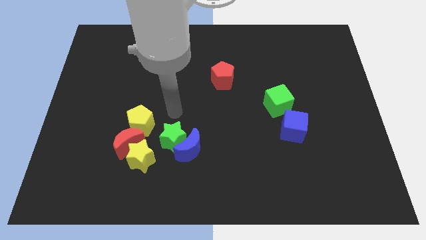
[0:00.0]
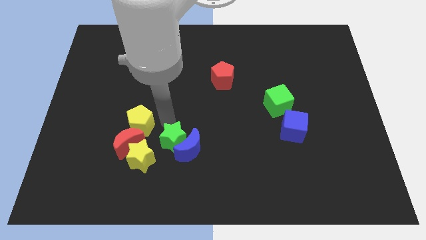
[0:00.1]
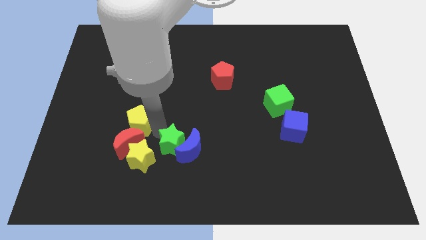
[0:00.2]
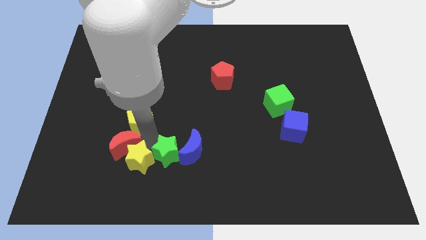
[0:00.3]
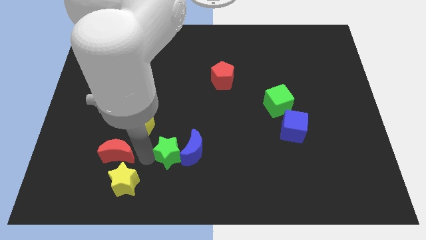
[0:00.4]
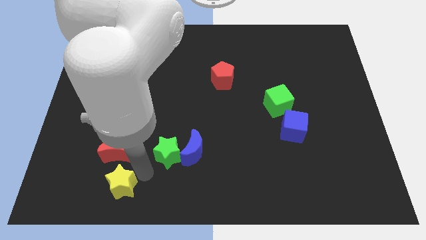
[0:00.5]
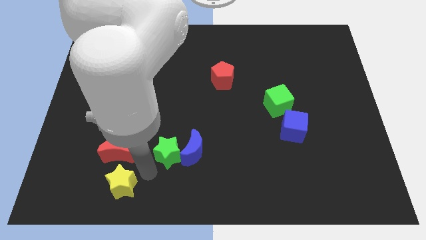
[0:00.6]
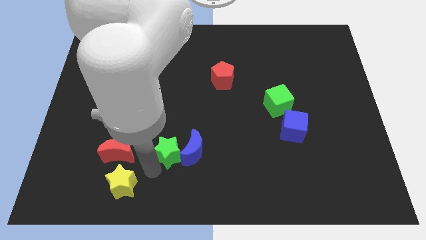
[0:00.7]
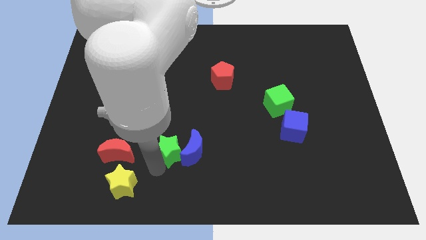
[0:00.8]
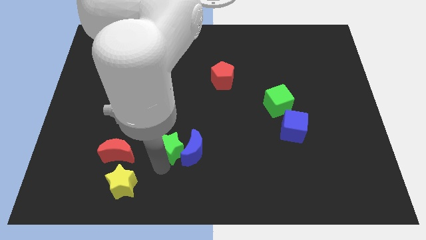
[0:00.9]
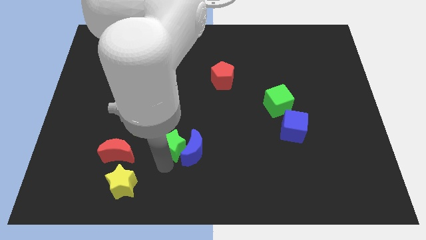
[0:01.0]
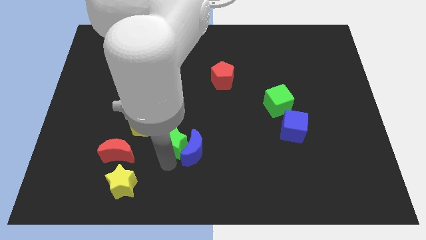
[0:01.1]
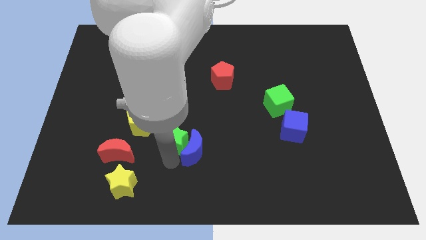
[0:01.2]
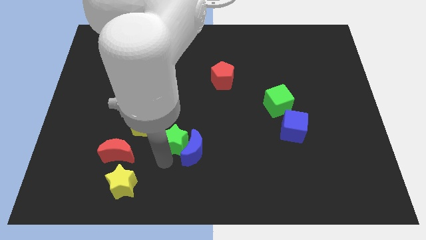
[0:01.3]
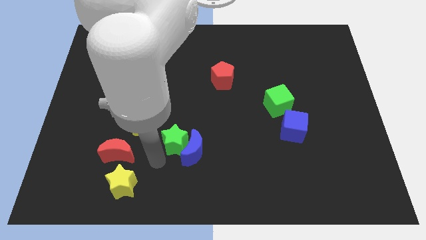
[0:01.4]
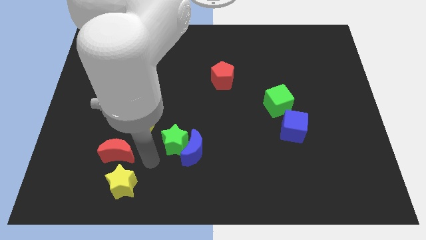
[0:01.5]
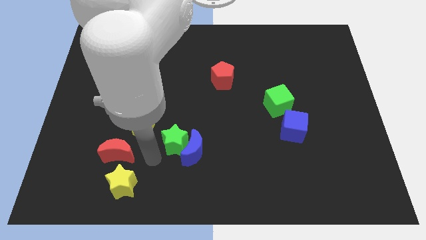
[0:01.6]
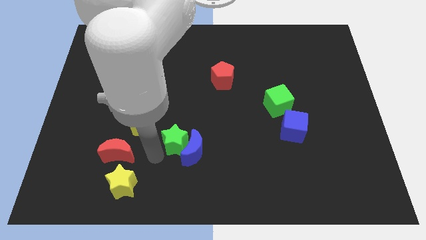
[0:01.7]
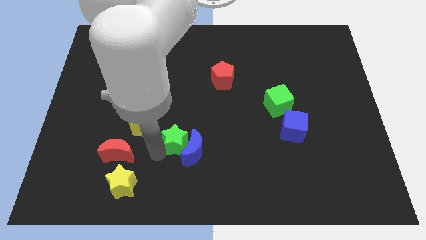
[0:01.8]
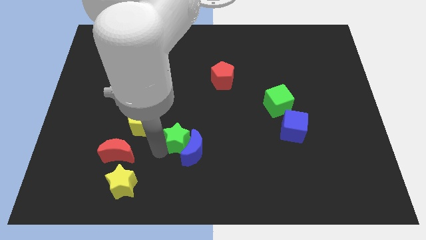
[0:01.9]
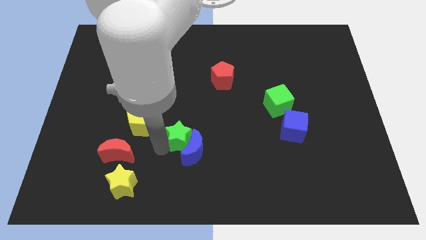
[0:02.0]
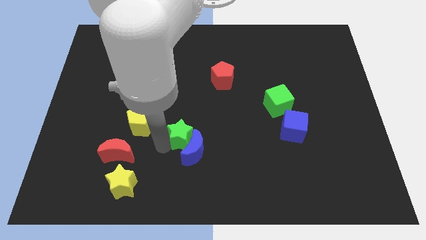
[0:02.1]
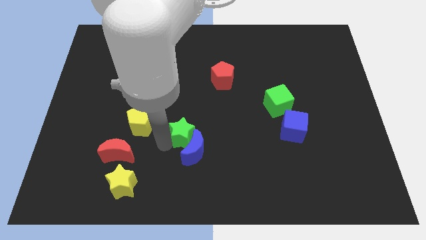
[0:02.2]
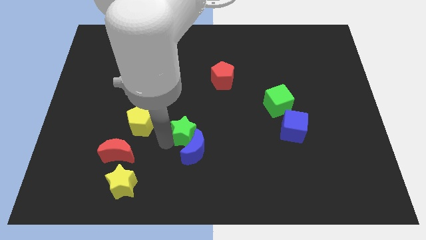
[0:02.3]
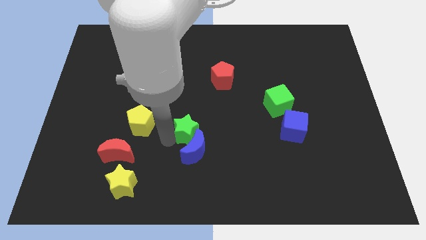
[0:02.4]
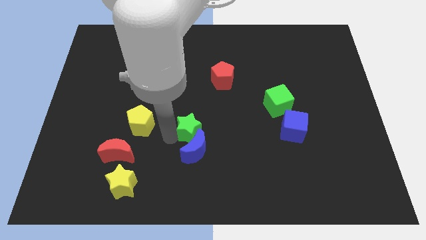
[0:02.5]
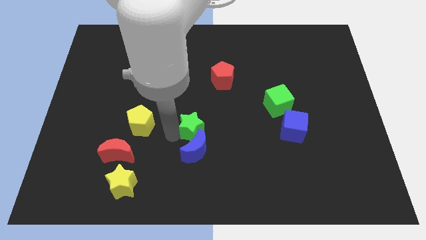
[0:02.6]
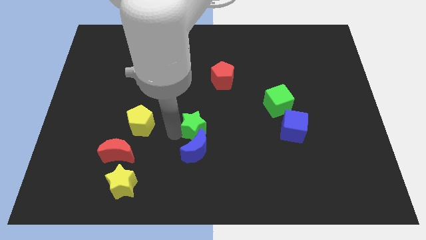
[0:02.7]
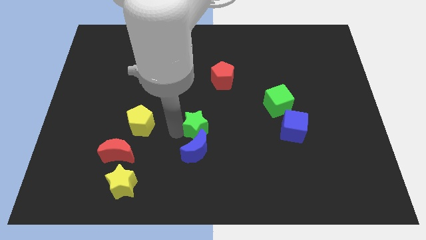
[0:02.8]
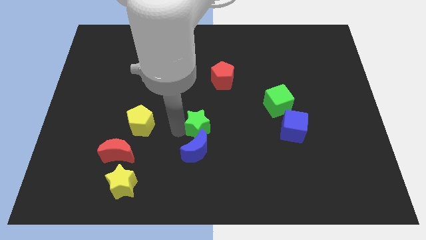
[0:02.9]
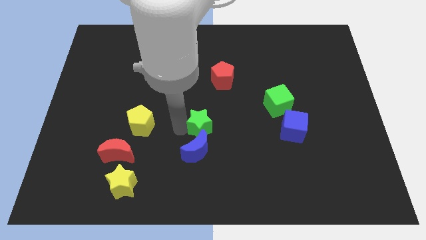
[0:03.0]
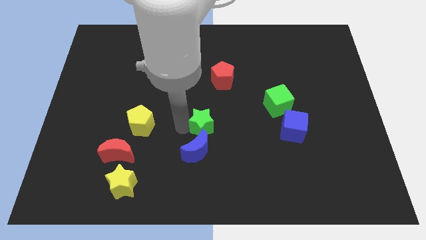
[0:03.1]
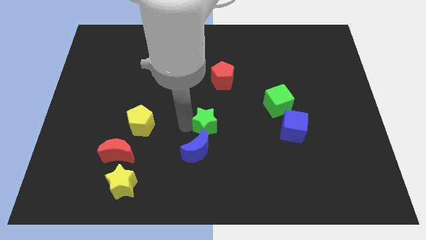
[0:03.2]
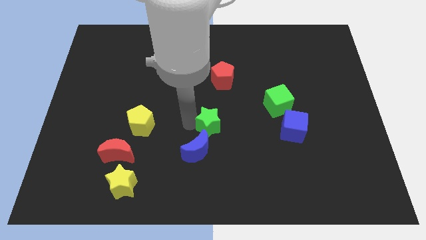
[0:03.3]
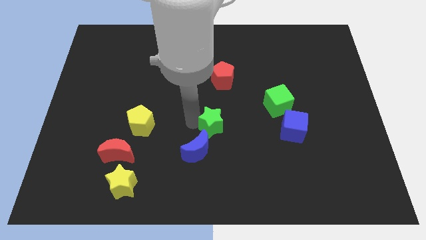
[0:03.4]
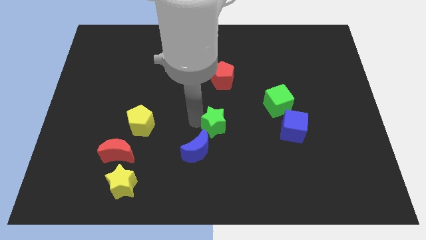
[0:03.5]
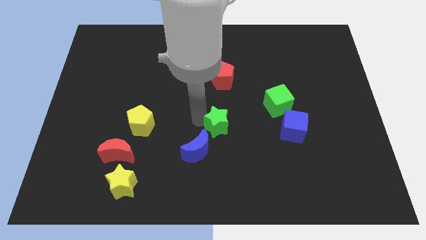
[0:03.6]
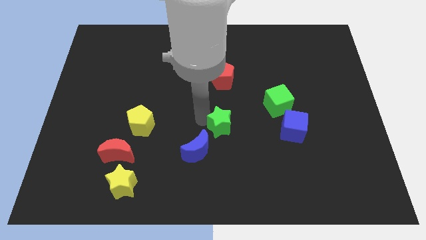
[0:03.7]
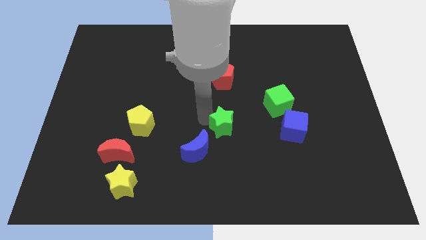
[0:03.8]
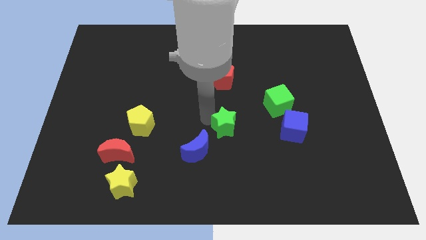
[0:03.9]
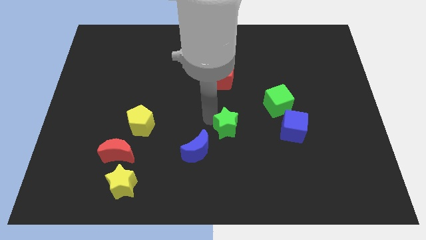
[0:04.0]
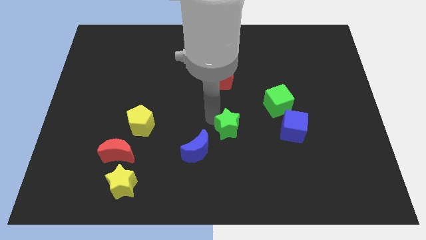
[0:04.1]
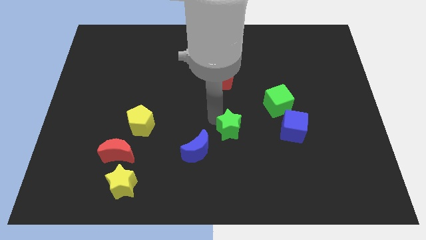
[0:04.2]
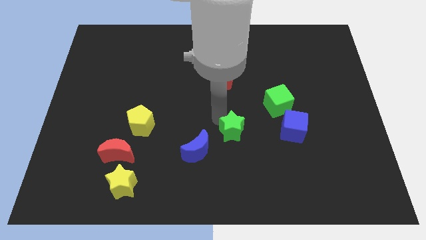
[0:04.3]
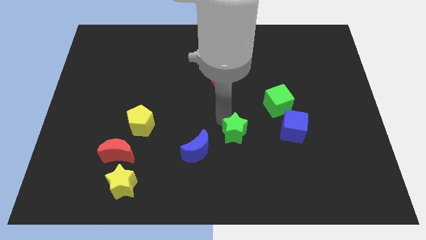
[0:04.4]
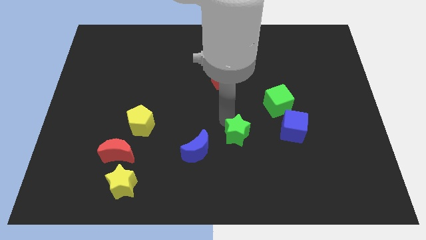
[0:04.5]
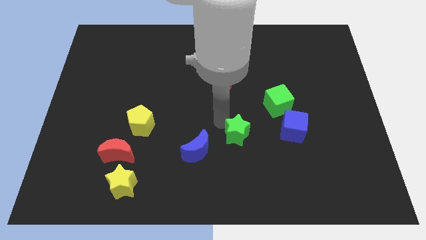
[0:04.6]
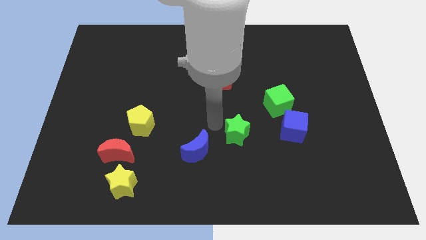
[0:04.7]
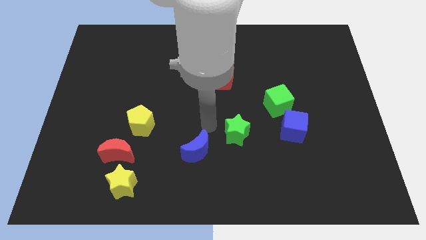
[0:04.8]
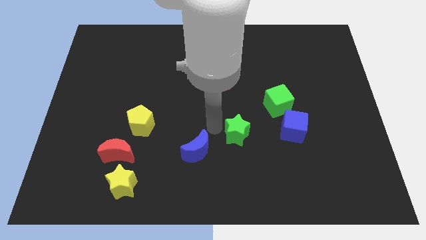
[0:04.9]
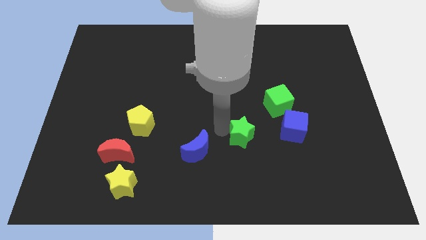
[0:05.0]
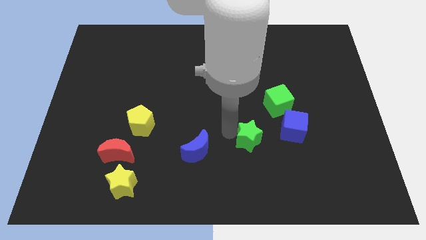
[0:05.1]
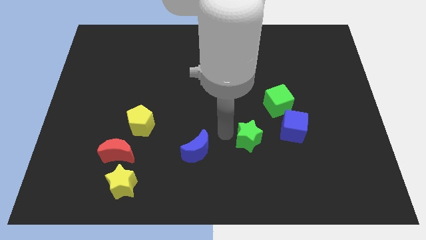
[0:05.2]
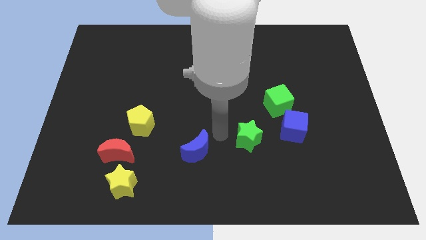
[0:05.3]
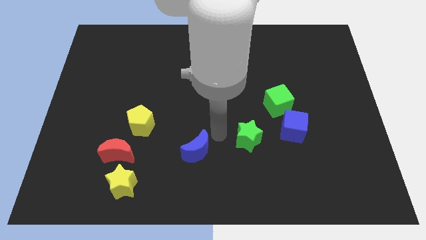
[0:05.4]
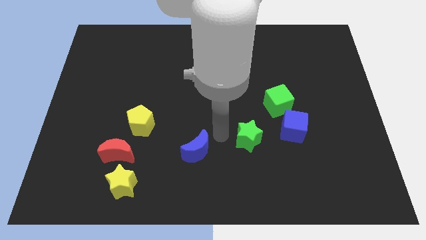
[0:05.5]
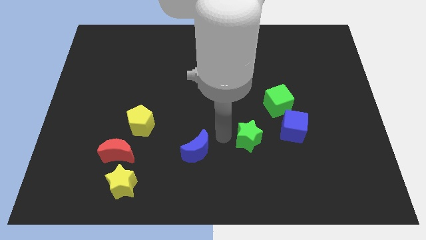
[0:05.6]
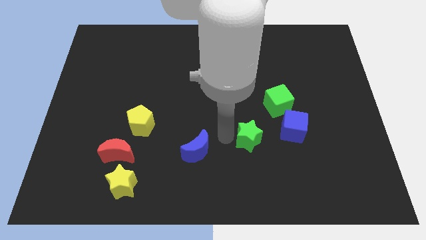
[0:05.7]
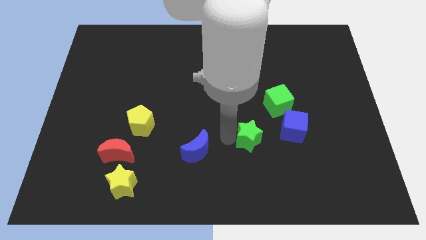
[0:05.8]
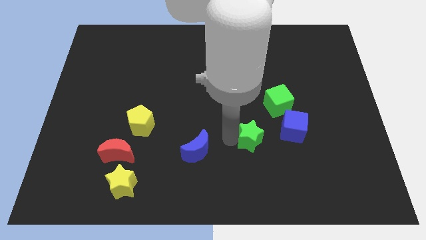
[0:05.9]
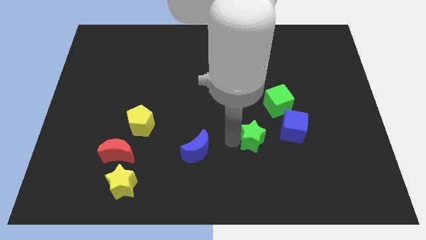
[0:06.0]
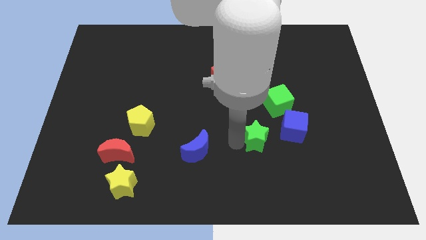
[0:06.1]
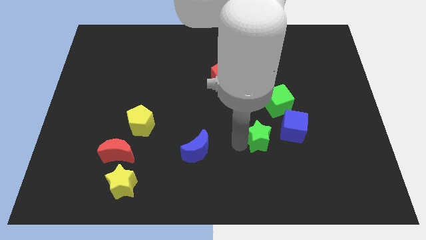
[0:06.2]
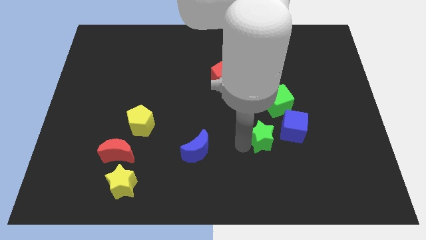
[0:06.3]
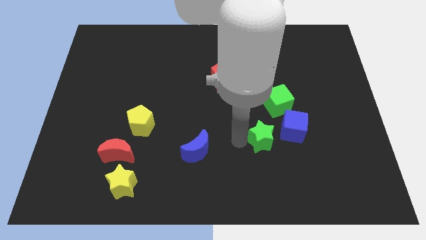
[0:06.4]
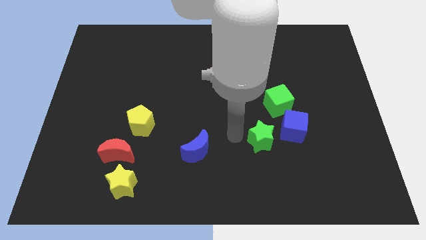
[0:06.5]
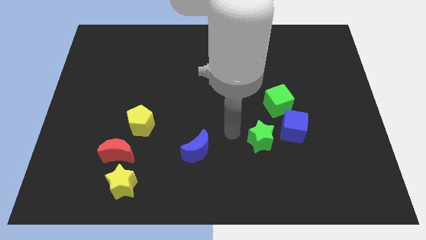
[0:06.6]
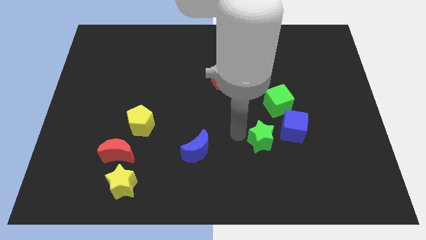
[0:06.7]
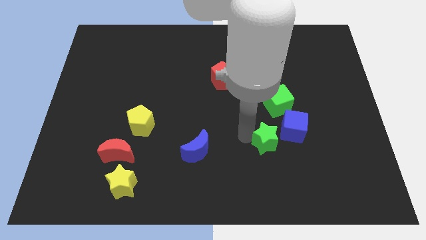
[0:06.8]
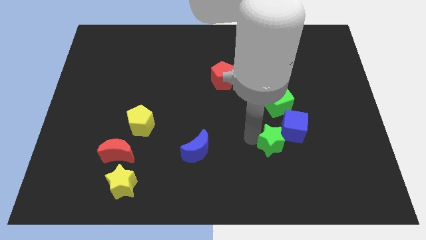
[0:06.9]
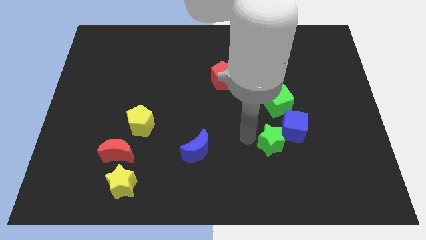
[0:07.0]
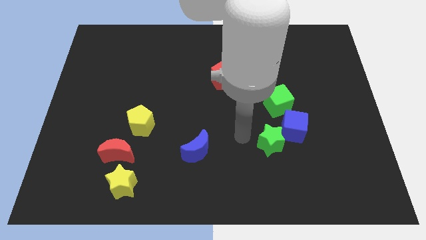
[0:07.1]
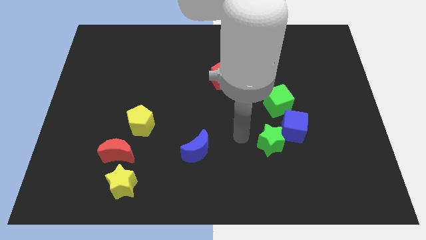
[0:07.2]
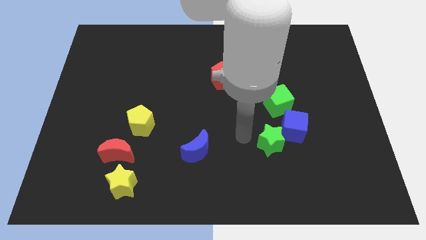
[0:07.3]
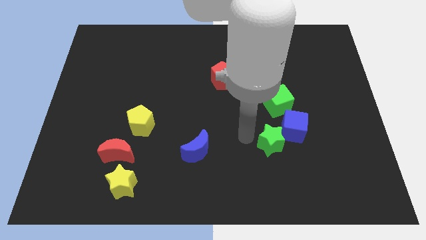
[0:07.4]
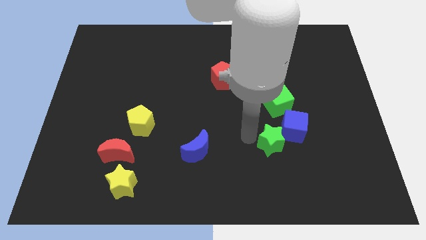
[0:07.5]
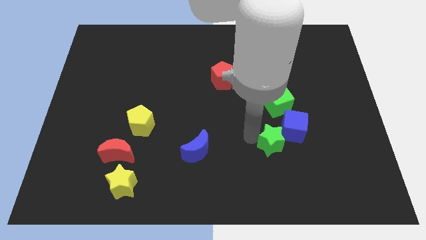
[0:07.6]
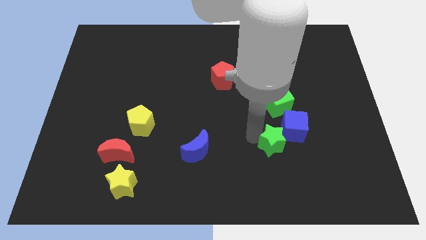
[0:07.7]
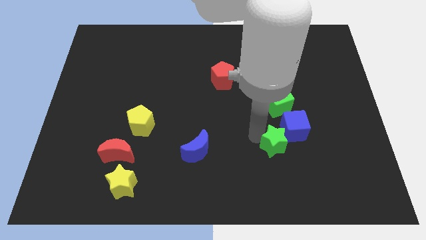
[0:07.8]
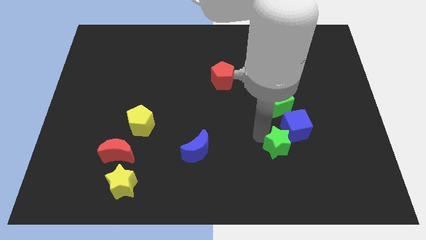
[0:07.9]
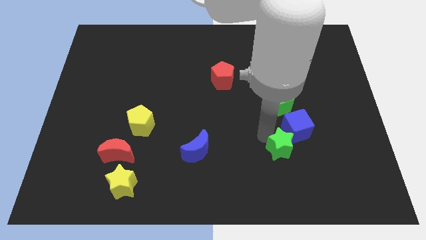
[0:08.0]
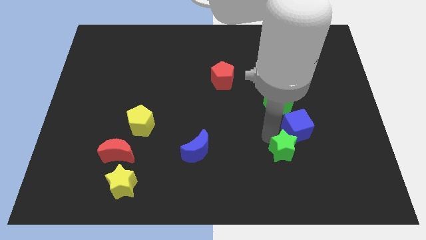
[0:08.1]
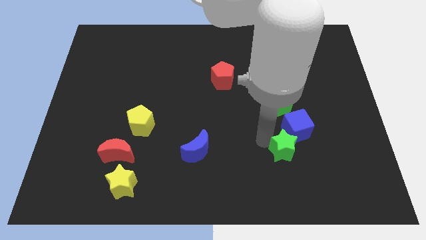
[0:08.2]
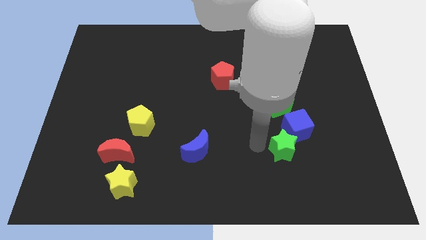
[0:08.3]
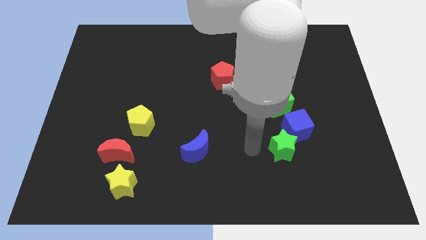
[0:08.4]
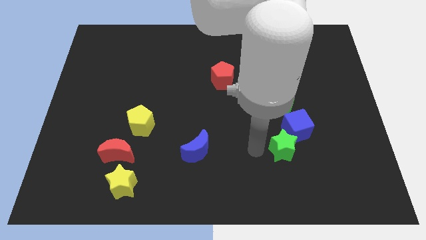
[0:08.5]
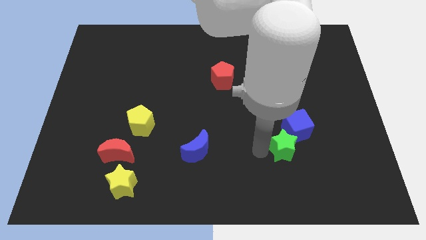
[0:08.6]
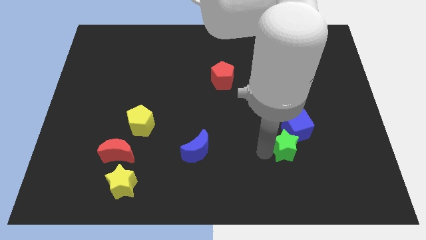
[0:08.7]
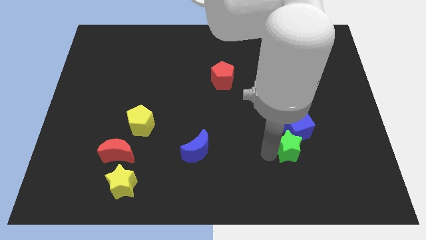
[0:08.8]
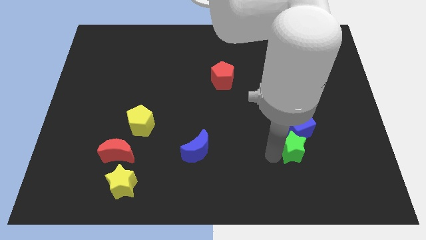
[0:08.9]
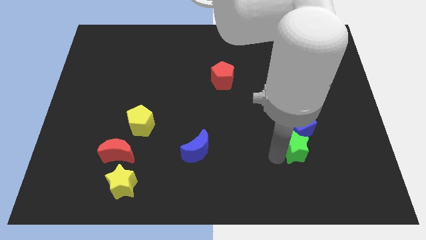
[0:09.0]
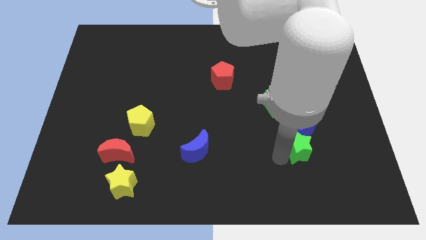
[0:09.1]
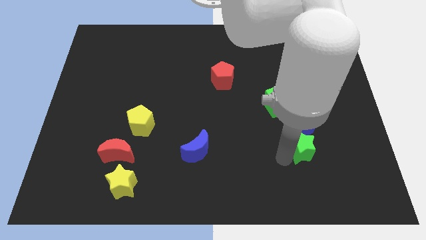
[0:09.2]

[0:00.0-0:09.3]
slide the green star to the bottom right of the blue cube
